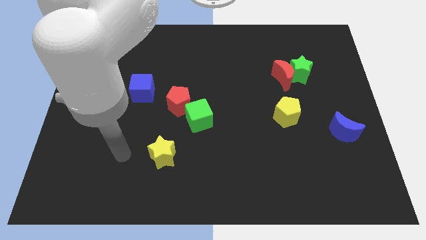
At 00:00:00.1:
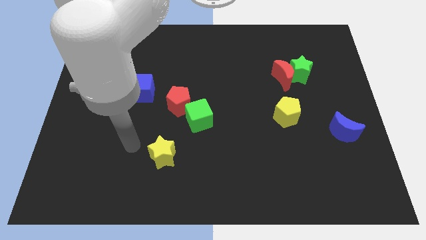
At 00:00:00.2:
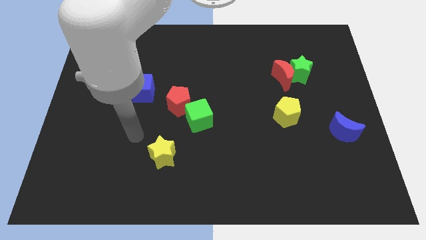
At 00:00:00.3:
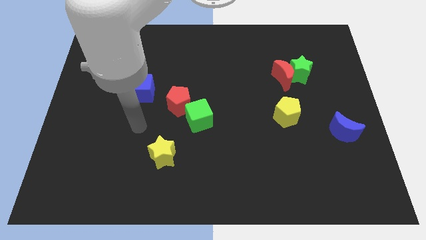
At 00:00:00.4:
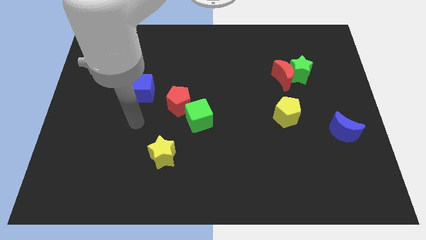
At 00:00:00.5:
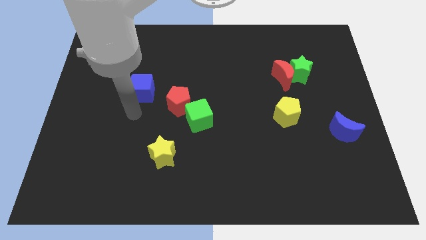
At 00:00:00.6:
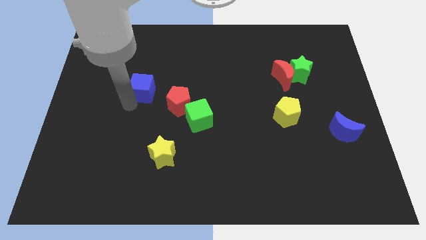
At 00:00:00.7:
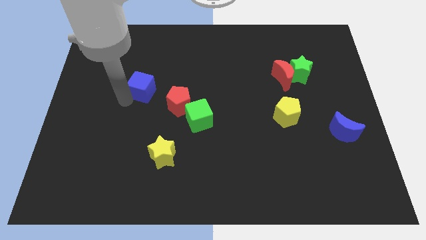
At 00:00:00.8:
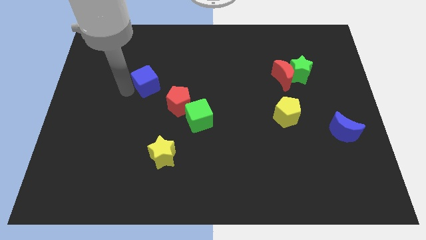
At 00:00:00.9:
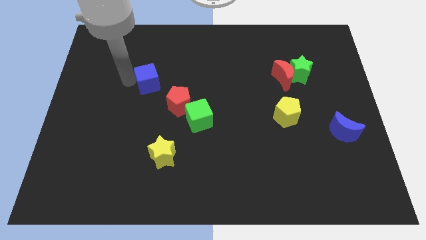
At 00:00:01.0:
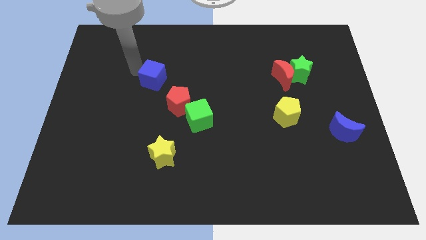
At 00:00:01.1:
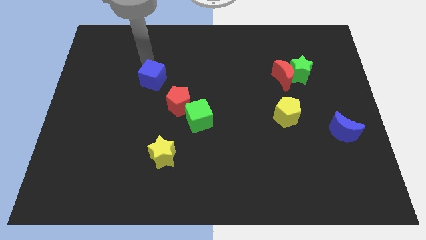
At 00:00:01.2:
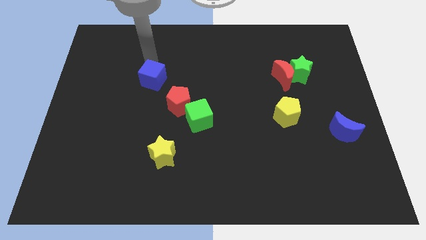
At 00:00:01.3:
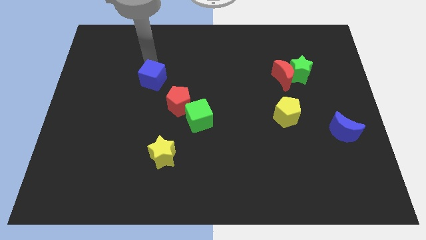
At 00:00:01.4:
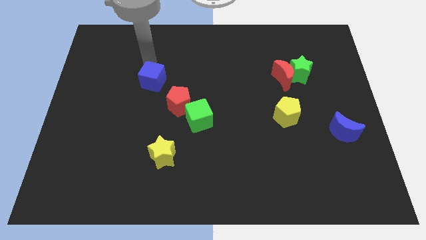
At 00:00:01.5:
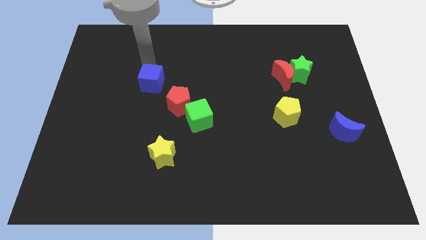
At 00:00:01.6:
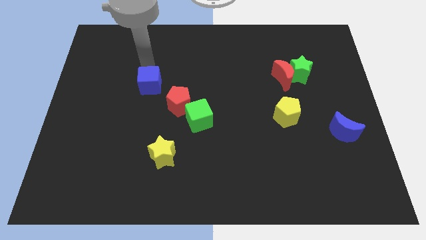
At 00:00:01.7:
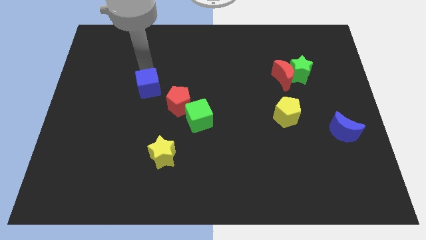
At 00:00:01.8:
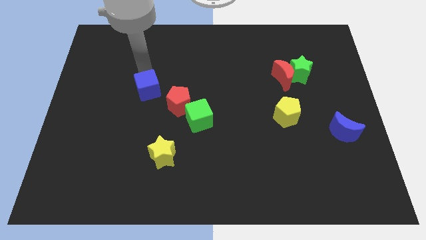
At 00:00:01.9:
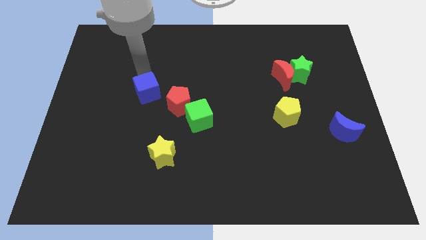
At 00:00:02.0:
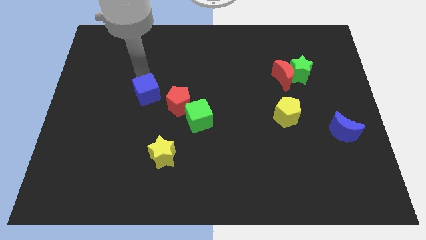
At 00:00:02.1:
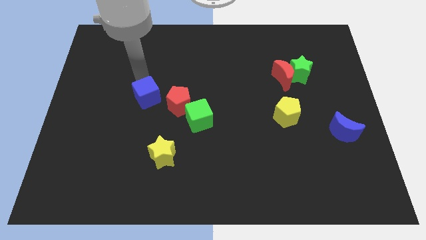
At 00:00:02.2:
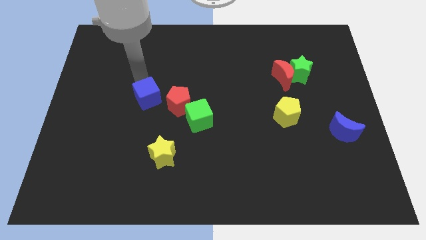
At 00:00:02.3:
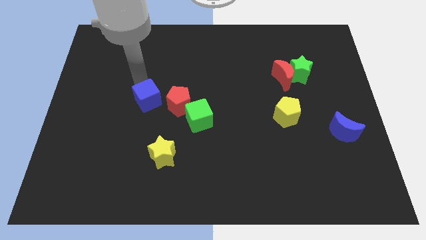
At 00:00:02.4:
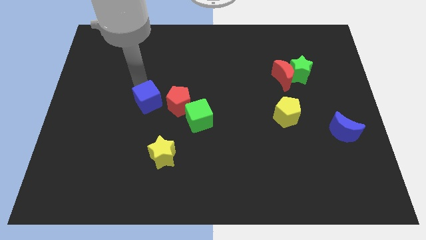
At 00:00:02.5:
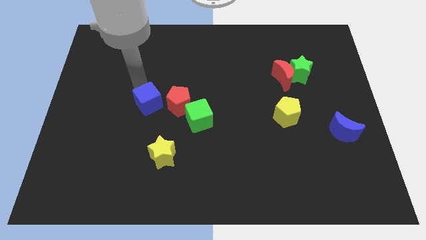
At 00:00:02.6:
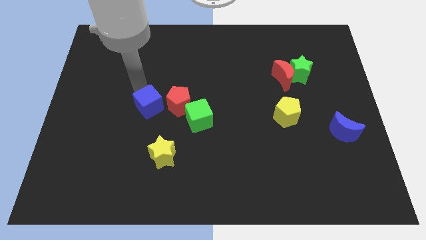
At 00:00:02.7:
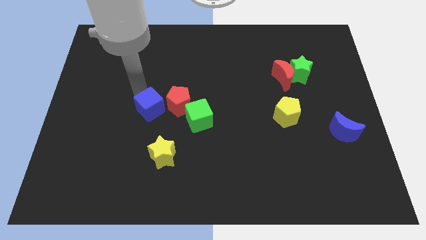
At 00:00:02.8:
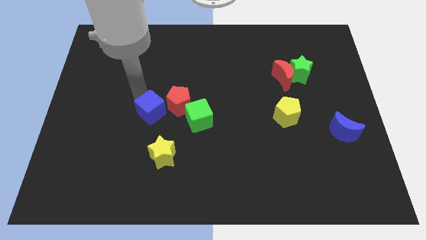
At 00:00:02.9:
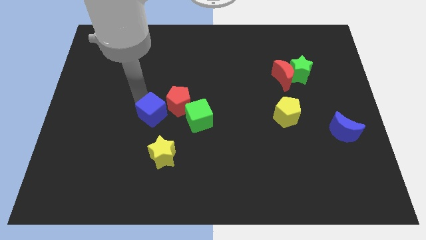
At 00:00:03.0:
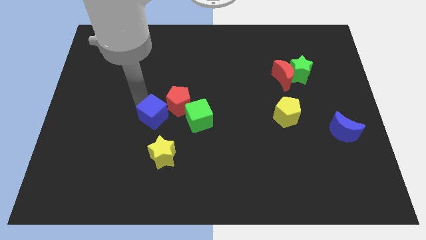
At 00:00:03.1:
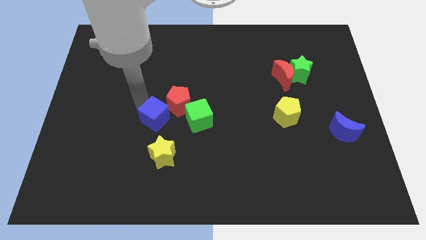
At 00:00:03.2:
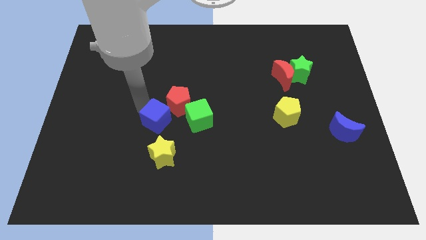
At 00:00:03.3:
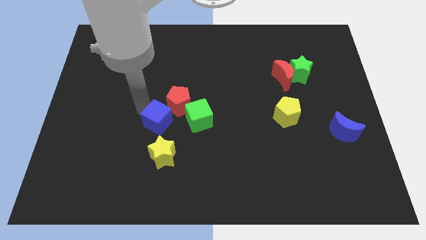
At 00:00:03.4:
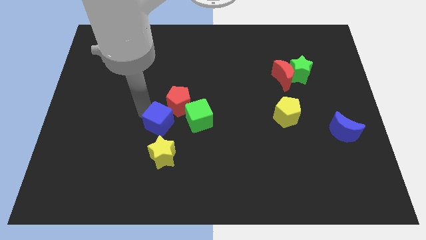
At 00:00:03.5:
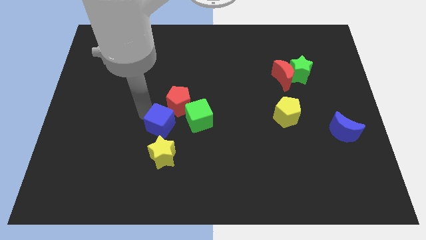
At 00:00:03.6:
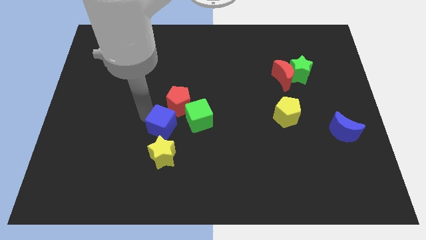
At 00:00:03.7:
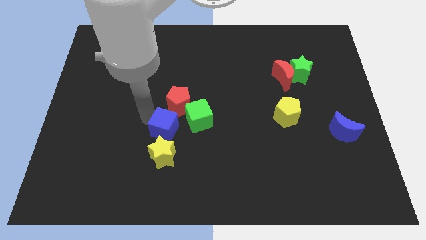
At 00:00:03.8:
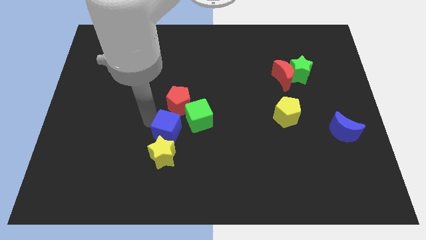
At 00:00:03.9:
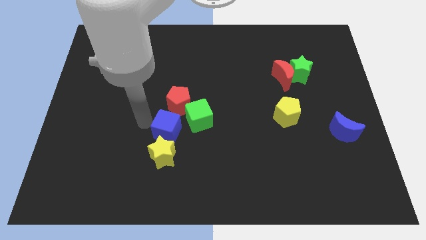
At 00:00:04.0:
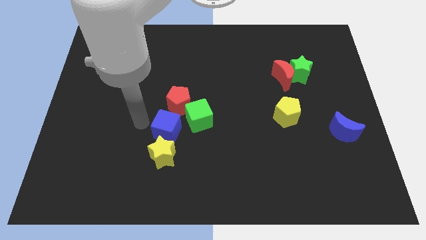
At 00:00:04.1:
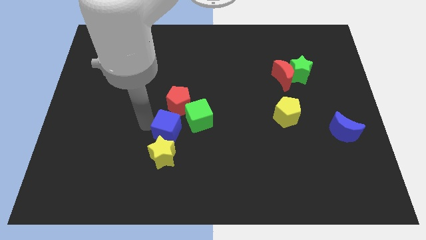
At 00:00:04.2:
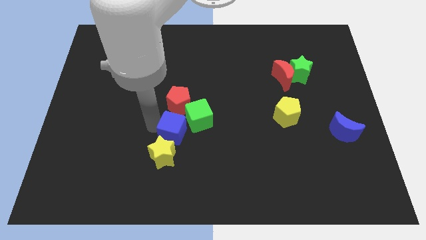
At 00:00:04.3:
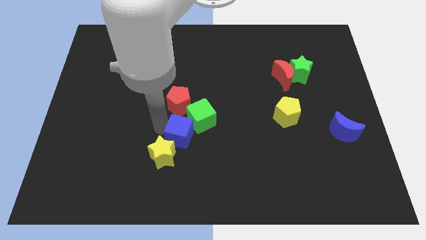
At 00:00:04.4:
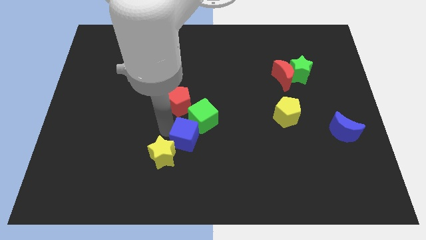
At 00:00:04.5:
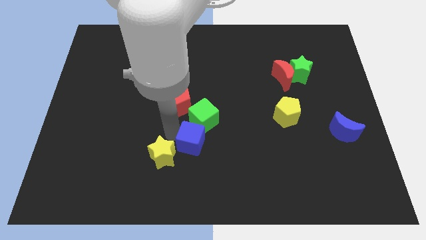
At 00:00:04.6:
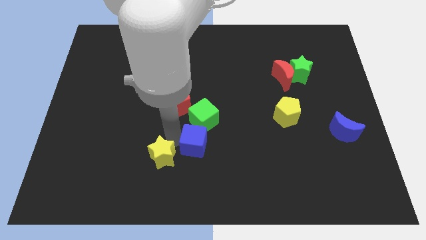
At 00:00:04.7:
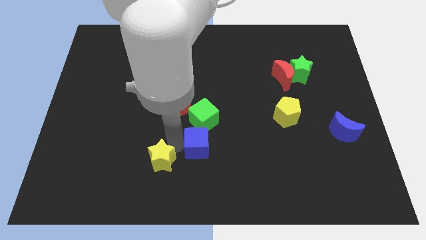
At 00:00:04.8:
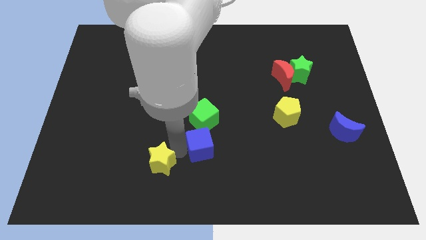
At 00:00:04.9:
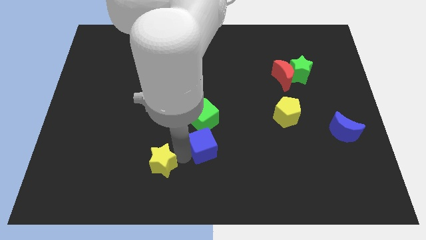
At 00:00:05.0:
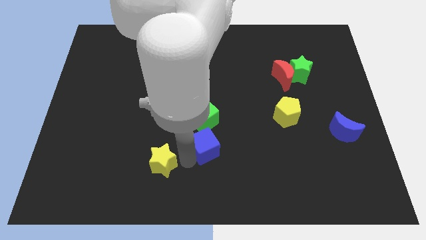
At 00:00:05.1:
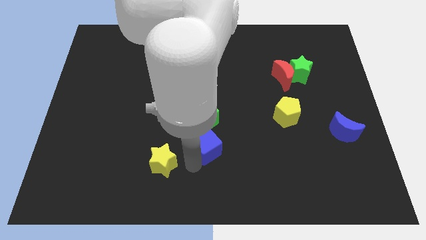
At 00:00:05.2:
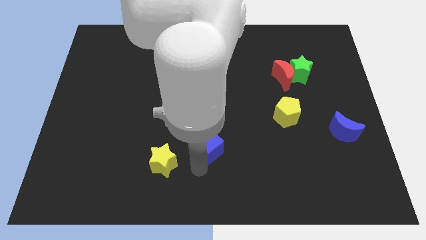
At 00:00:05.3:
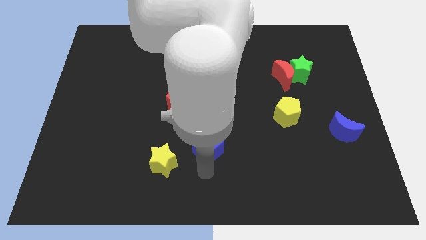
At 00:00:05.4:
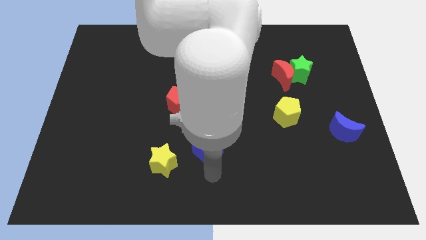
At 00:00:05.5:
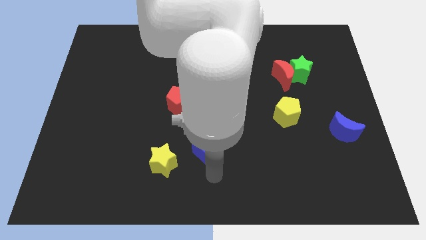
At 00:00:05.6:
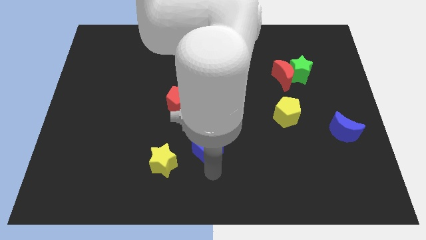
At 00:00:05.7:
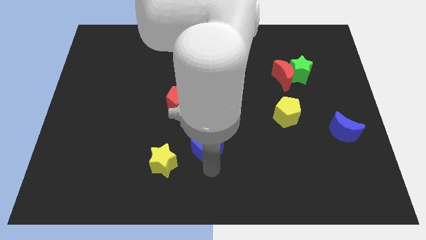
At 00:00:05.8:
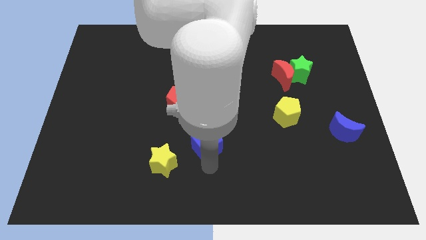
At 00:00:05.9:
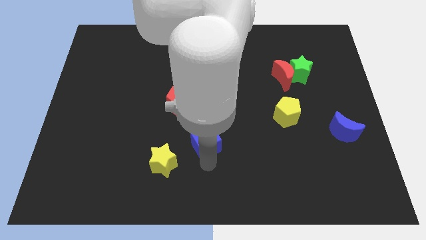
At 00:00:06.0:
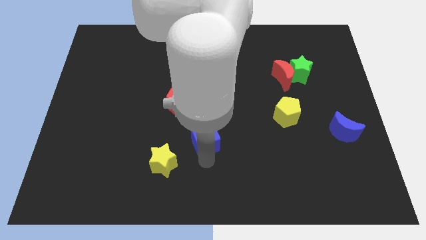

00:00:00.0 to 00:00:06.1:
put the blue cube to the bottom right side of the red pentagon

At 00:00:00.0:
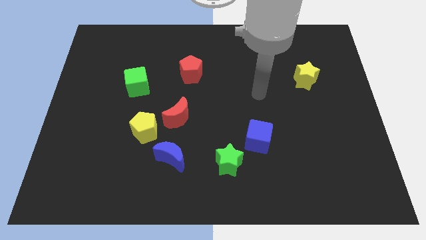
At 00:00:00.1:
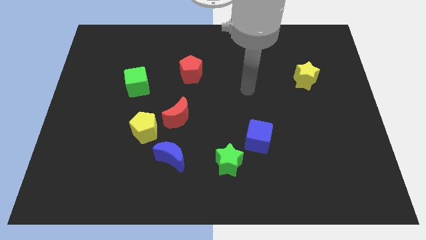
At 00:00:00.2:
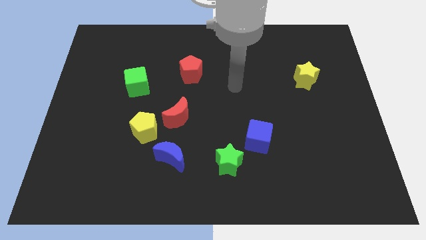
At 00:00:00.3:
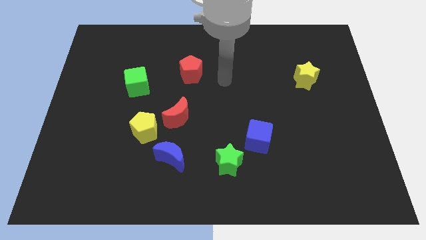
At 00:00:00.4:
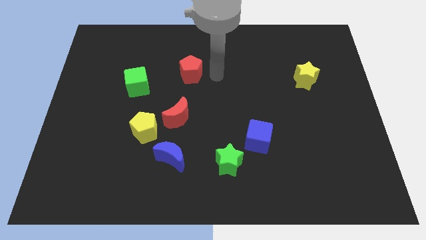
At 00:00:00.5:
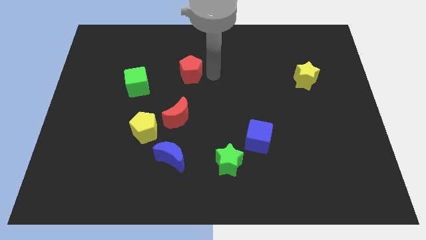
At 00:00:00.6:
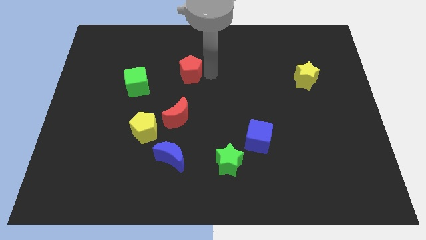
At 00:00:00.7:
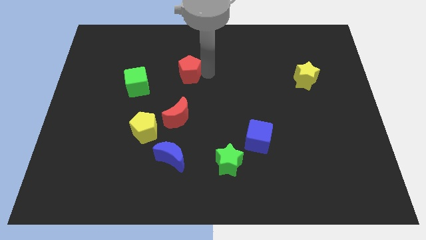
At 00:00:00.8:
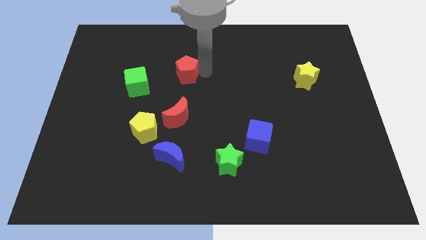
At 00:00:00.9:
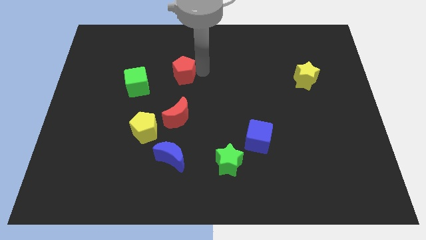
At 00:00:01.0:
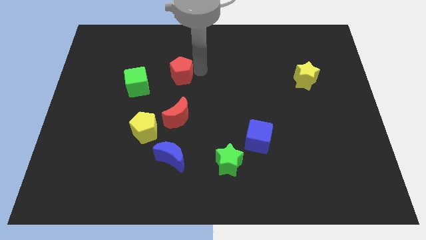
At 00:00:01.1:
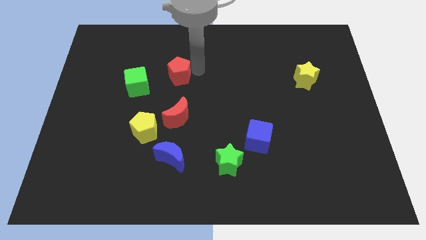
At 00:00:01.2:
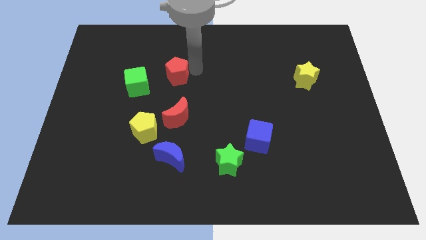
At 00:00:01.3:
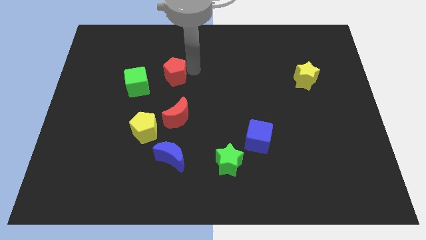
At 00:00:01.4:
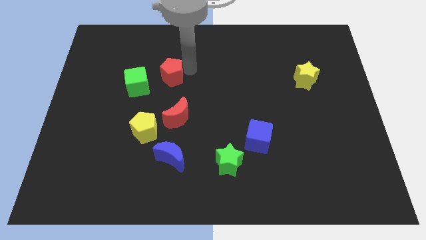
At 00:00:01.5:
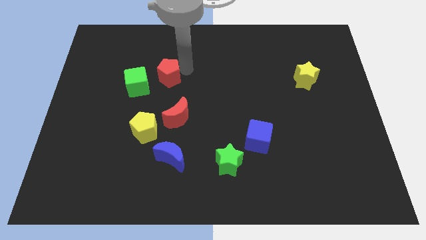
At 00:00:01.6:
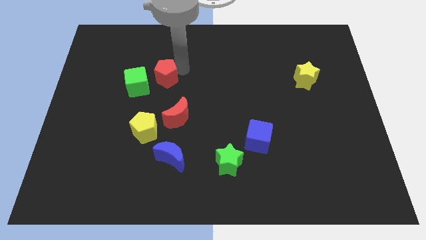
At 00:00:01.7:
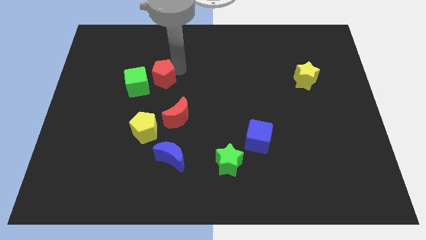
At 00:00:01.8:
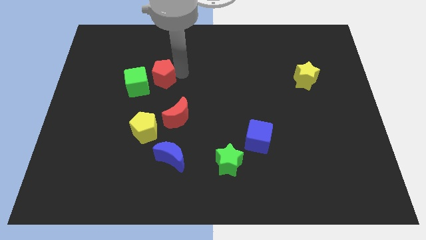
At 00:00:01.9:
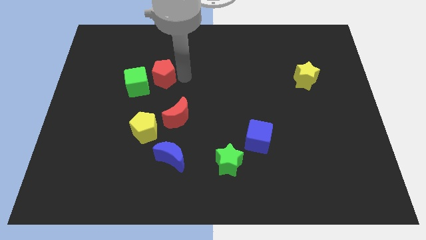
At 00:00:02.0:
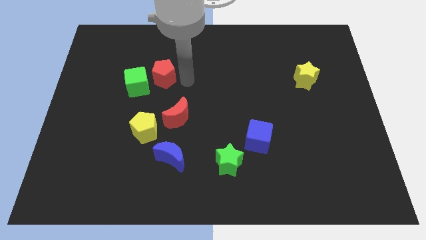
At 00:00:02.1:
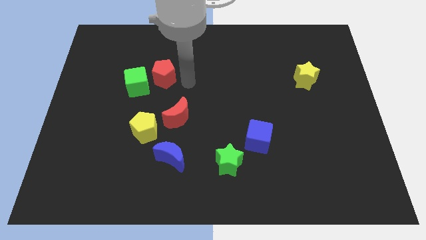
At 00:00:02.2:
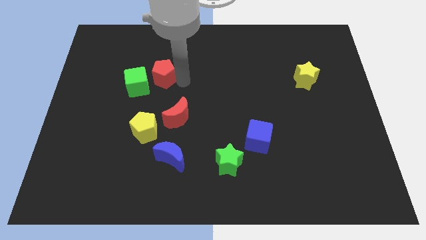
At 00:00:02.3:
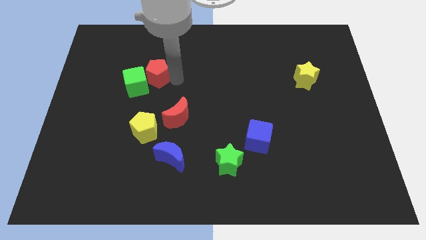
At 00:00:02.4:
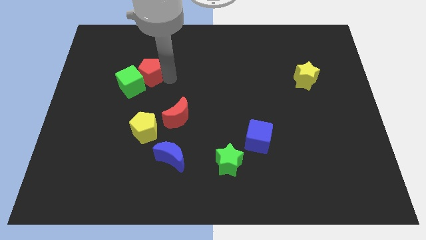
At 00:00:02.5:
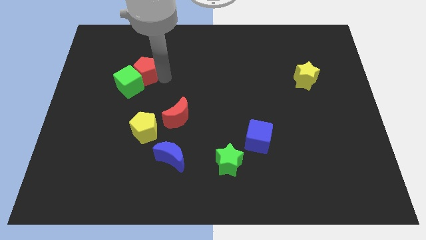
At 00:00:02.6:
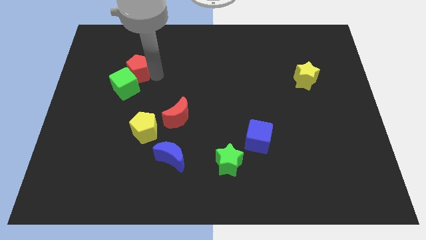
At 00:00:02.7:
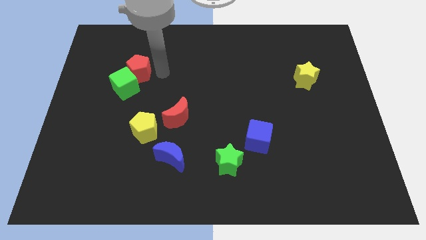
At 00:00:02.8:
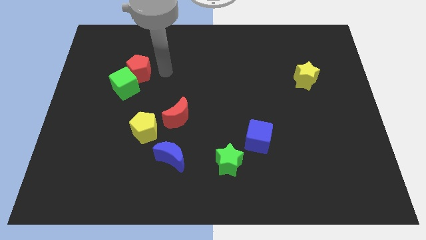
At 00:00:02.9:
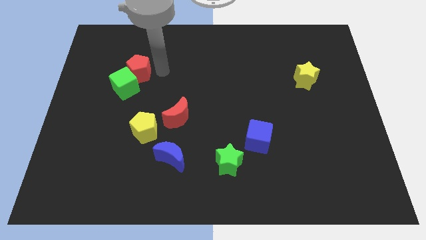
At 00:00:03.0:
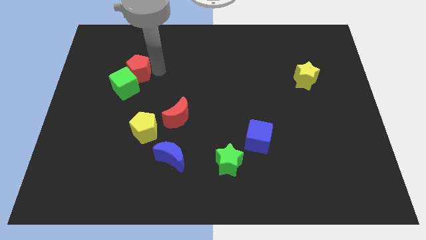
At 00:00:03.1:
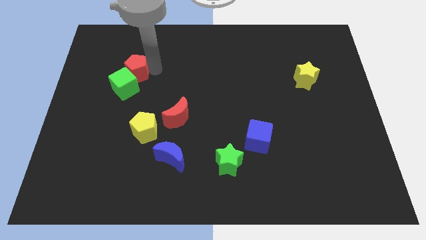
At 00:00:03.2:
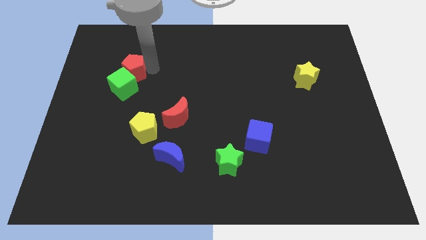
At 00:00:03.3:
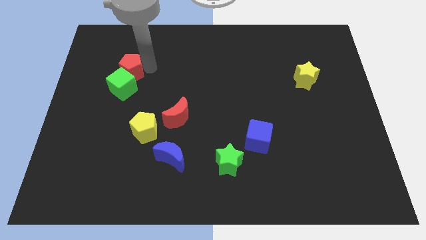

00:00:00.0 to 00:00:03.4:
move the red pentagon to the top left side of the green cube
